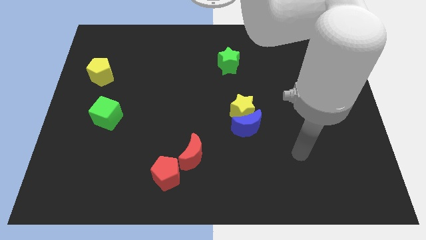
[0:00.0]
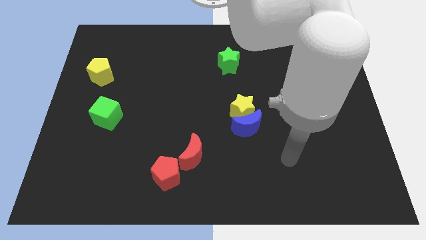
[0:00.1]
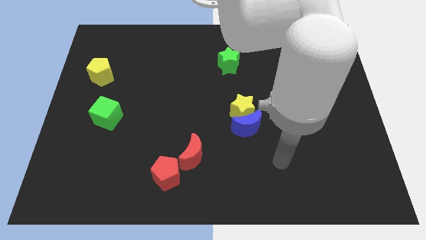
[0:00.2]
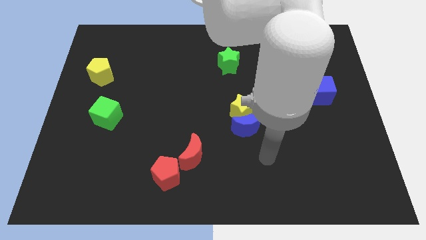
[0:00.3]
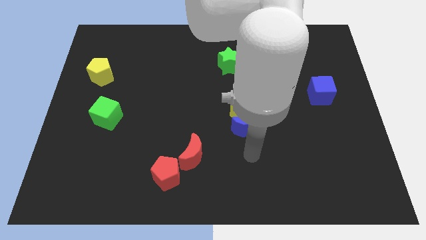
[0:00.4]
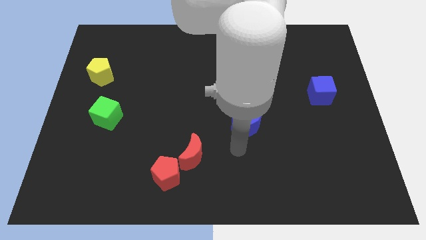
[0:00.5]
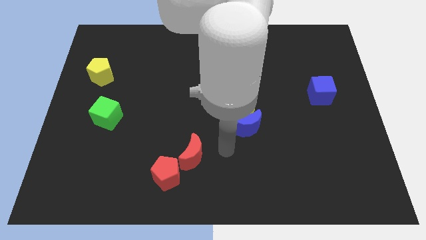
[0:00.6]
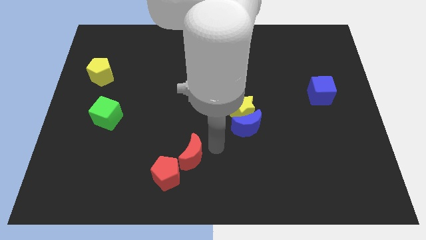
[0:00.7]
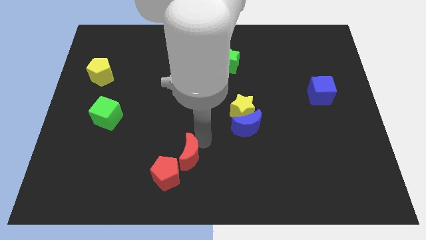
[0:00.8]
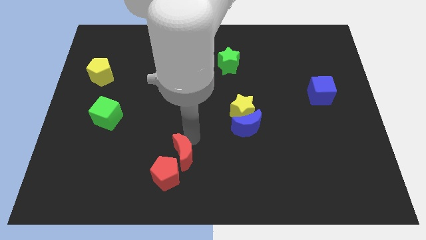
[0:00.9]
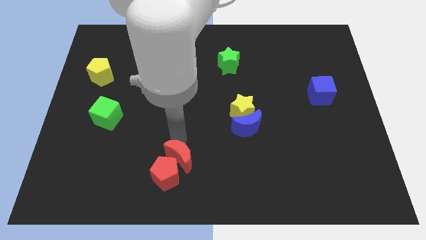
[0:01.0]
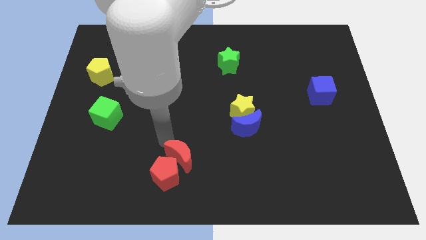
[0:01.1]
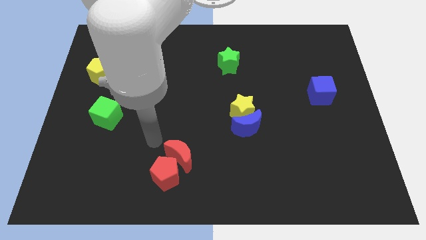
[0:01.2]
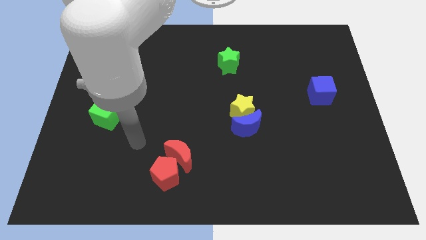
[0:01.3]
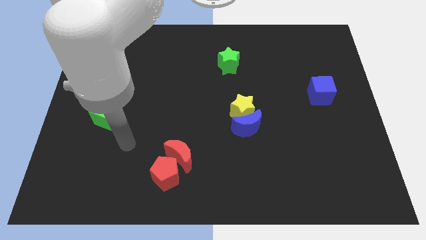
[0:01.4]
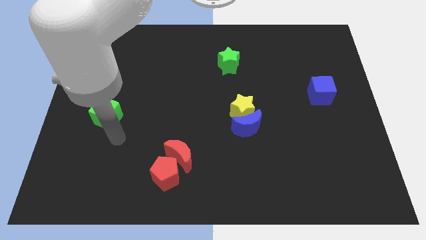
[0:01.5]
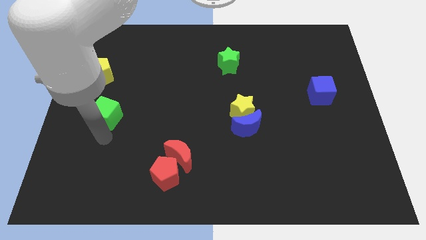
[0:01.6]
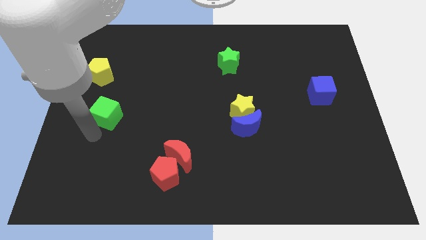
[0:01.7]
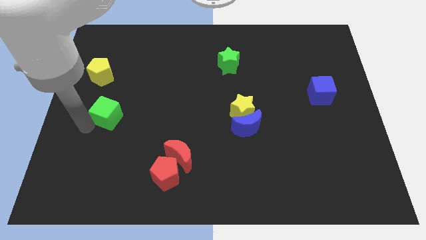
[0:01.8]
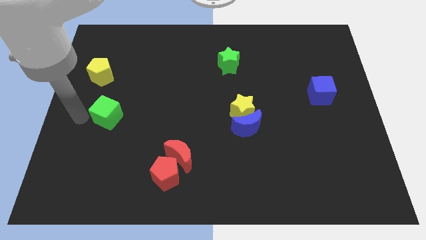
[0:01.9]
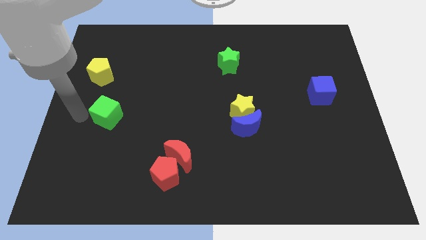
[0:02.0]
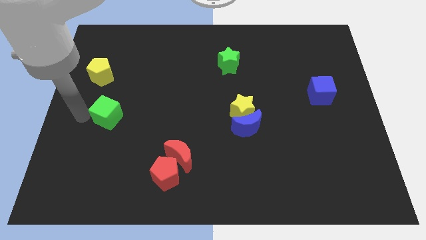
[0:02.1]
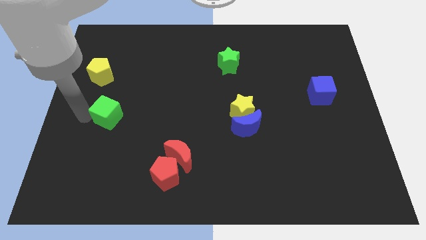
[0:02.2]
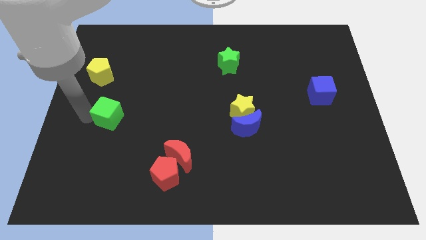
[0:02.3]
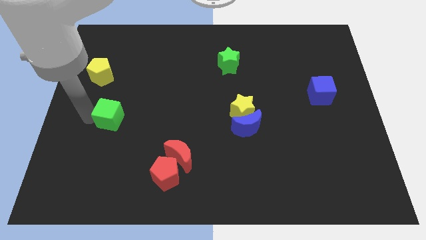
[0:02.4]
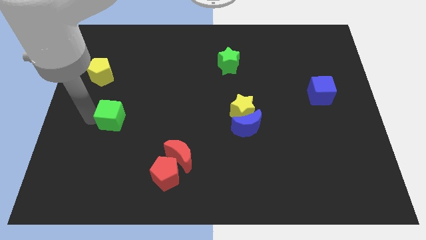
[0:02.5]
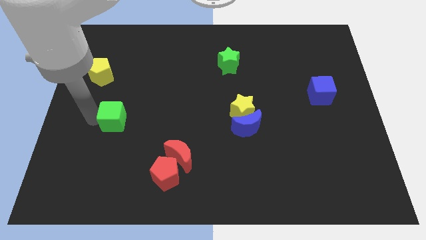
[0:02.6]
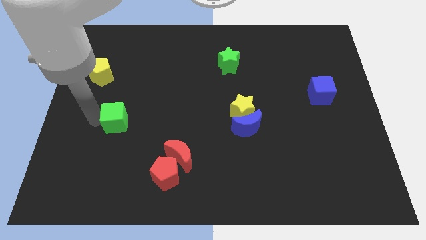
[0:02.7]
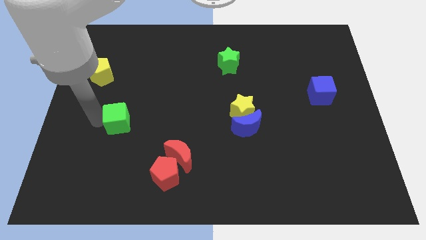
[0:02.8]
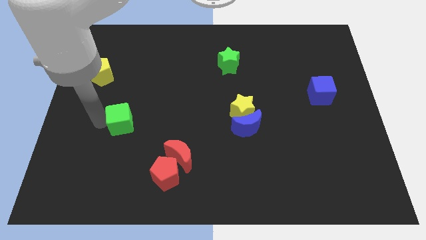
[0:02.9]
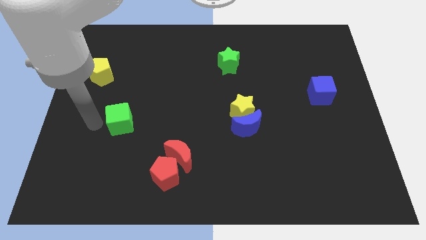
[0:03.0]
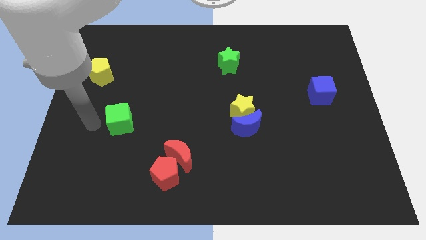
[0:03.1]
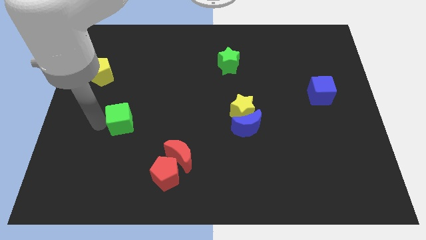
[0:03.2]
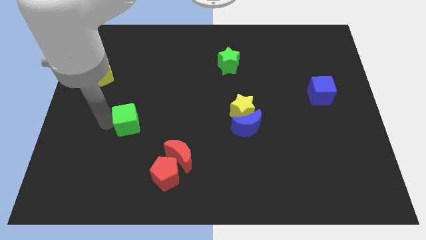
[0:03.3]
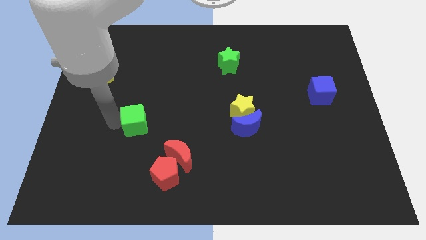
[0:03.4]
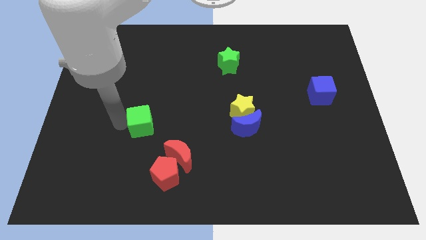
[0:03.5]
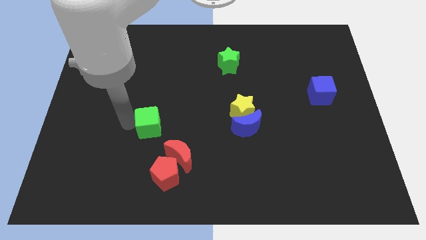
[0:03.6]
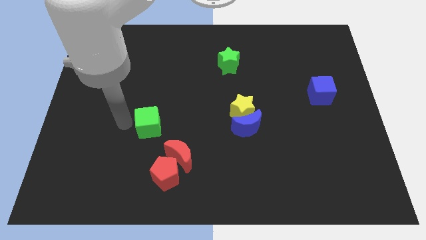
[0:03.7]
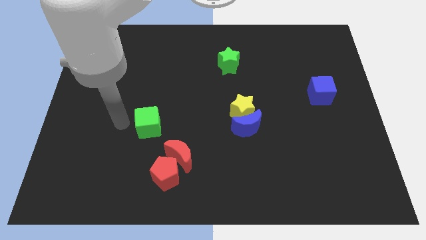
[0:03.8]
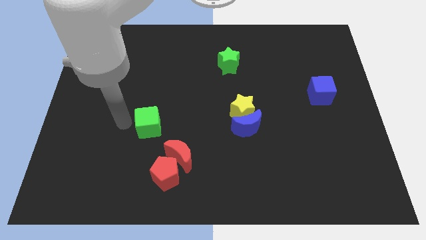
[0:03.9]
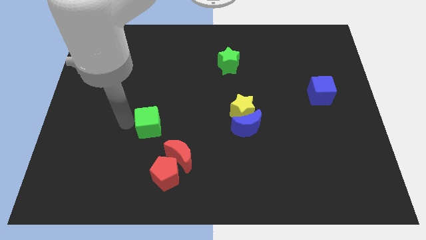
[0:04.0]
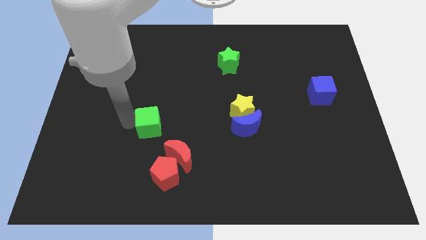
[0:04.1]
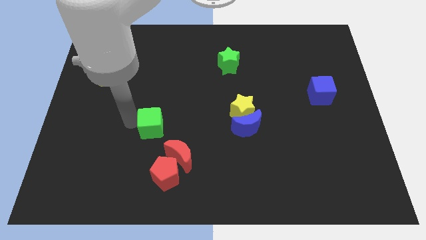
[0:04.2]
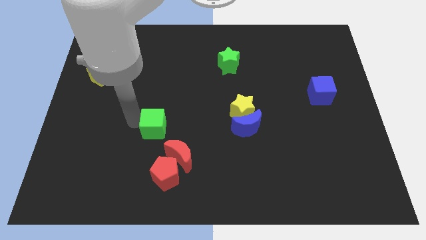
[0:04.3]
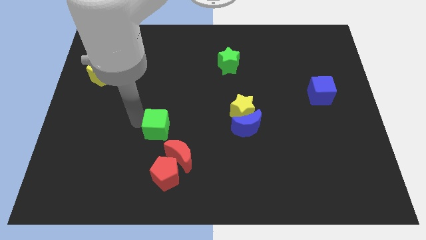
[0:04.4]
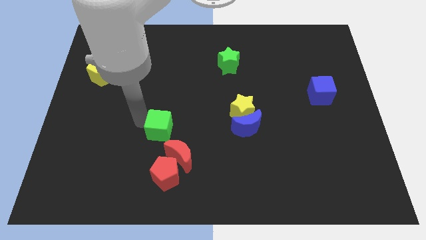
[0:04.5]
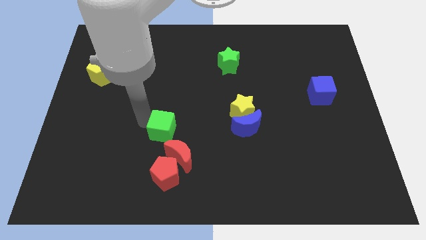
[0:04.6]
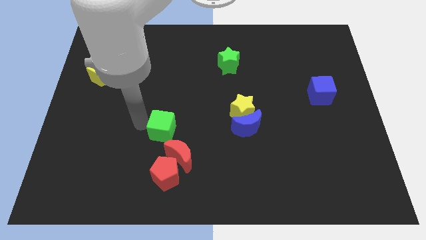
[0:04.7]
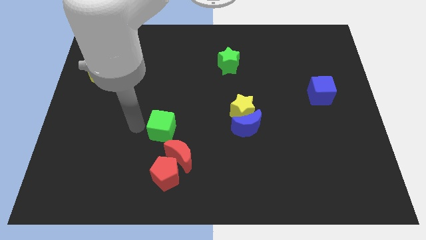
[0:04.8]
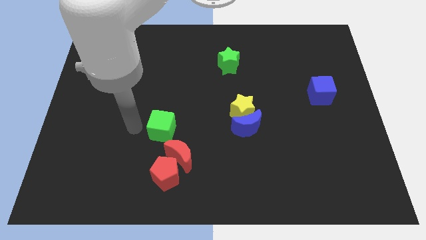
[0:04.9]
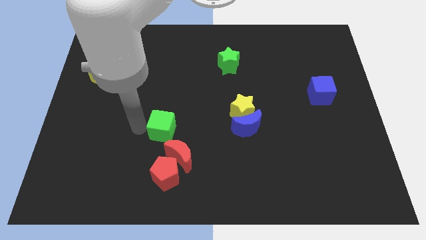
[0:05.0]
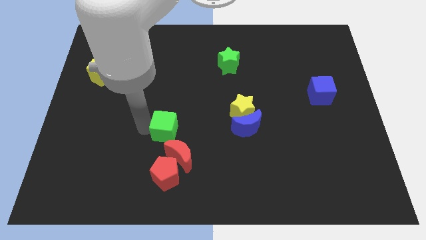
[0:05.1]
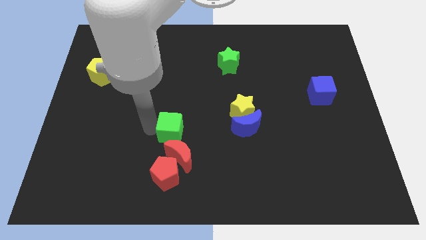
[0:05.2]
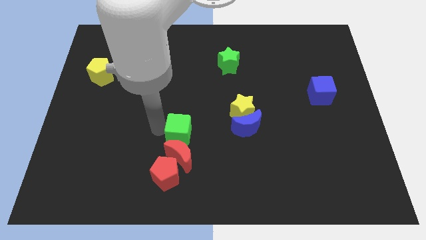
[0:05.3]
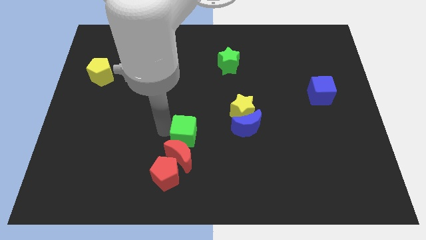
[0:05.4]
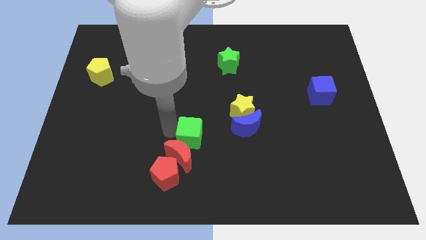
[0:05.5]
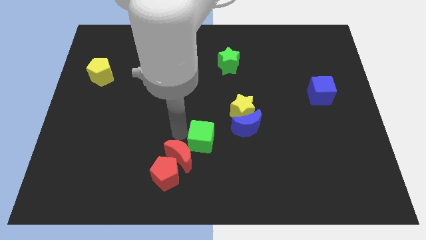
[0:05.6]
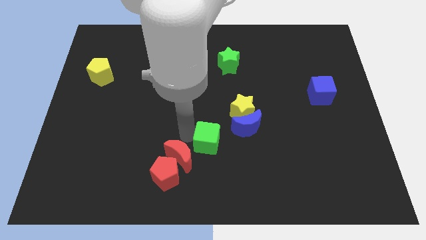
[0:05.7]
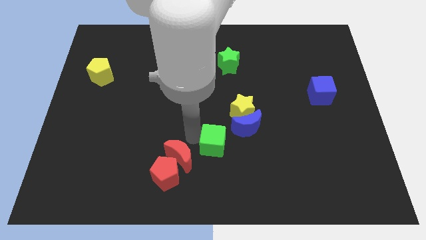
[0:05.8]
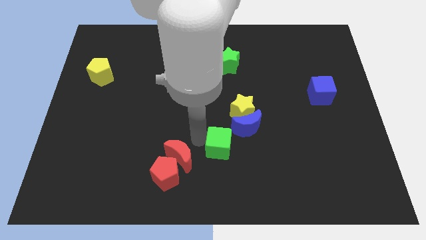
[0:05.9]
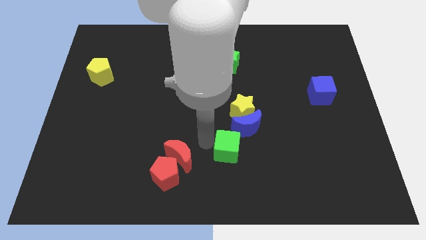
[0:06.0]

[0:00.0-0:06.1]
slide the green cube to the bottom side of the yellow star

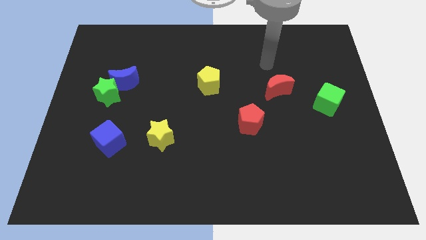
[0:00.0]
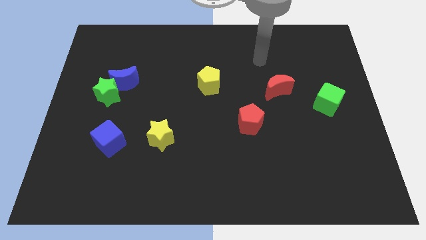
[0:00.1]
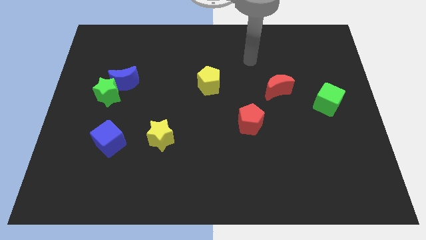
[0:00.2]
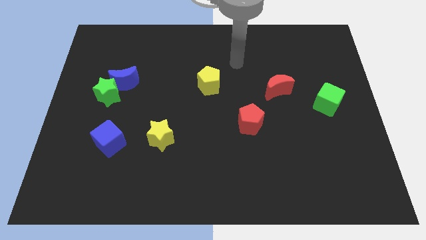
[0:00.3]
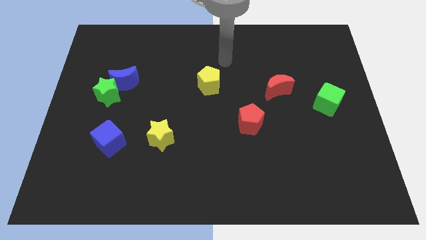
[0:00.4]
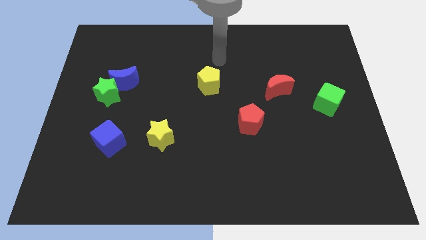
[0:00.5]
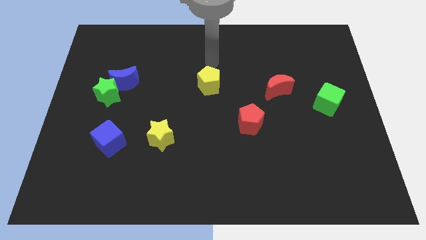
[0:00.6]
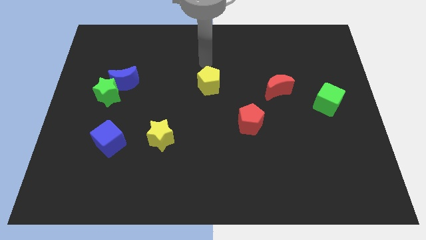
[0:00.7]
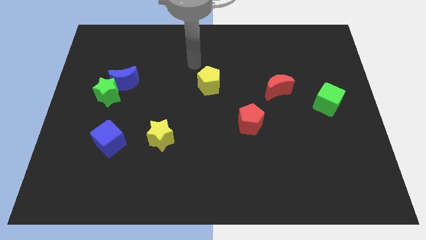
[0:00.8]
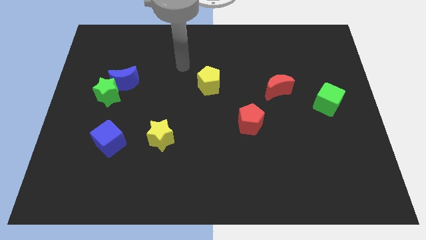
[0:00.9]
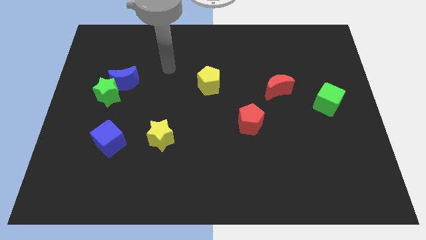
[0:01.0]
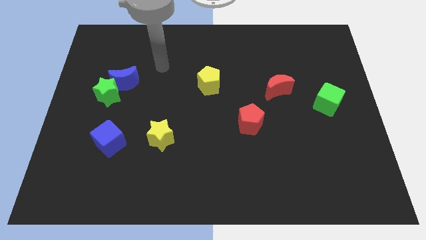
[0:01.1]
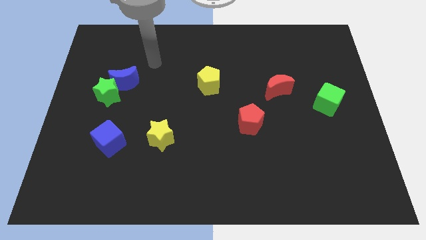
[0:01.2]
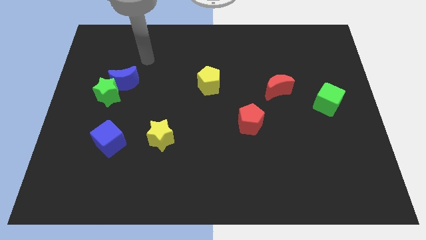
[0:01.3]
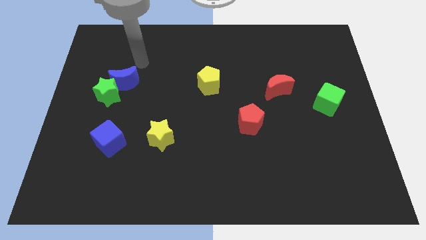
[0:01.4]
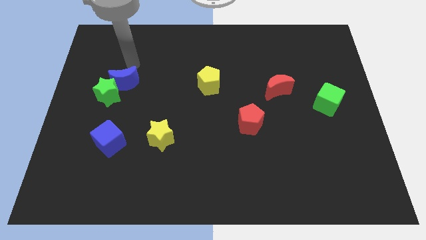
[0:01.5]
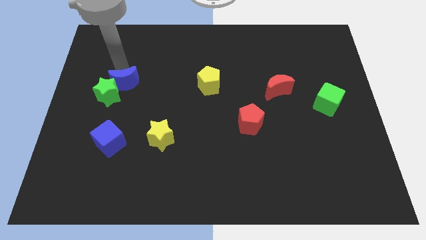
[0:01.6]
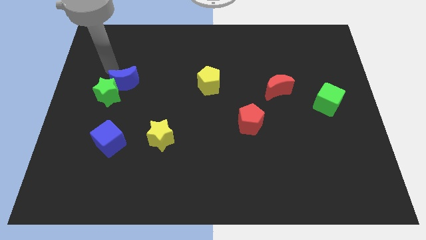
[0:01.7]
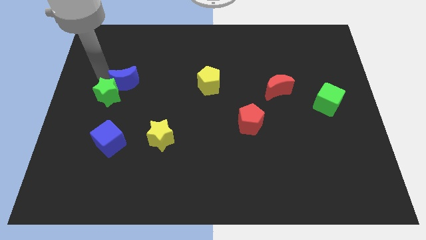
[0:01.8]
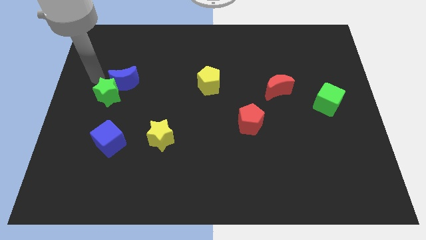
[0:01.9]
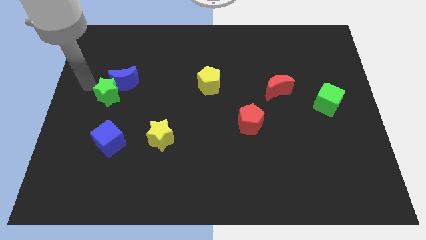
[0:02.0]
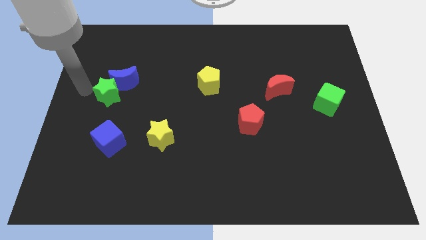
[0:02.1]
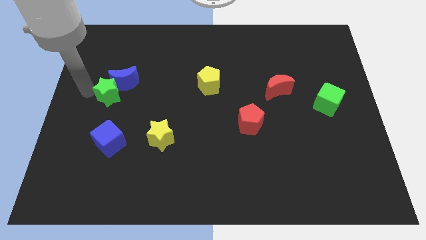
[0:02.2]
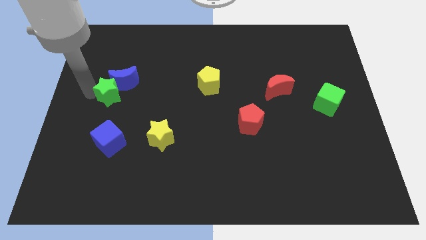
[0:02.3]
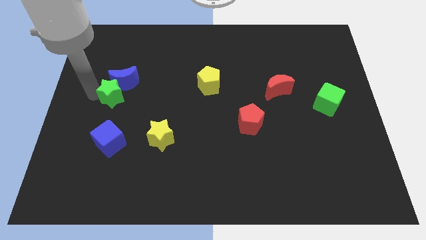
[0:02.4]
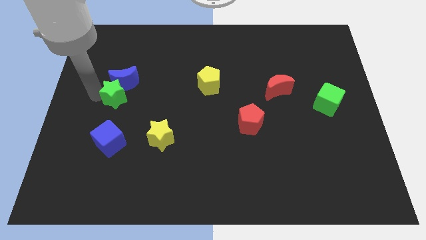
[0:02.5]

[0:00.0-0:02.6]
move the green star to the bottom right side of the blue moon
